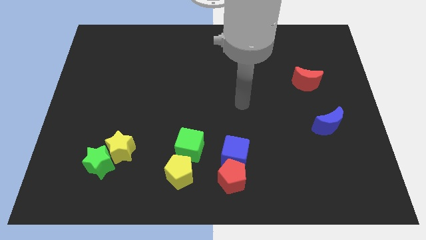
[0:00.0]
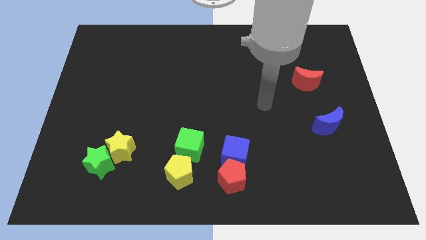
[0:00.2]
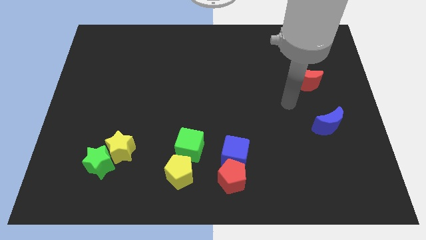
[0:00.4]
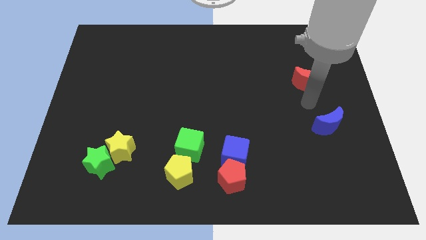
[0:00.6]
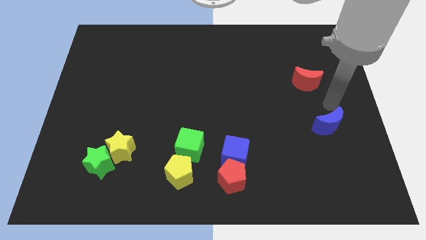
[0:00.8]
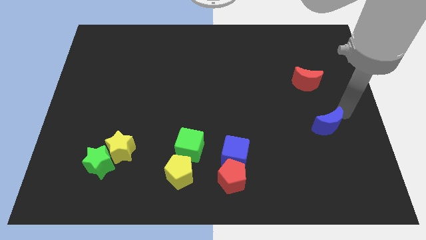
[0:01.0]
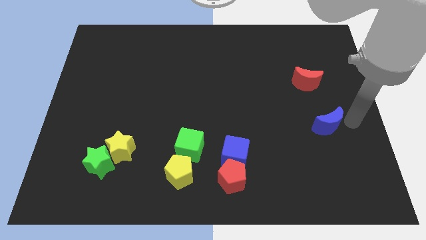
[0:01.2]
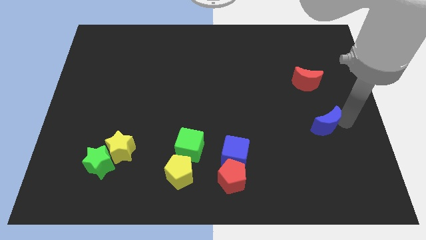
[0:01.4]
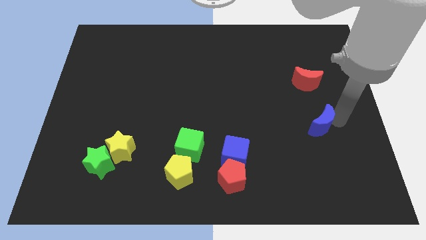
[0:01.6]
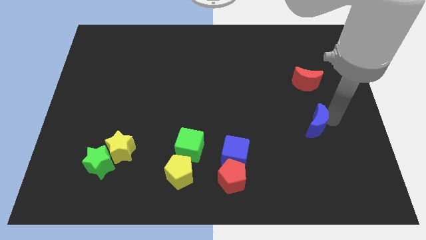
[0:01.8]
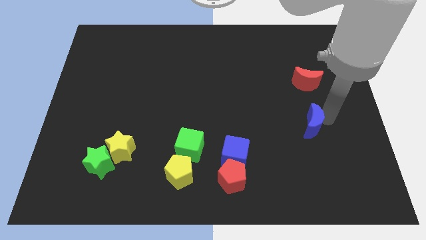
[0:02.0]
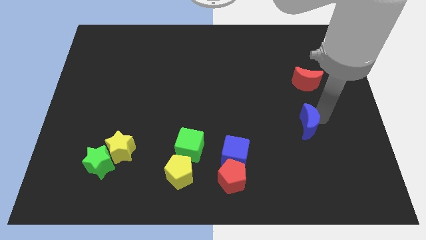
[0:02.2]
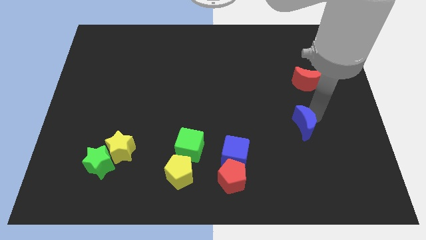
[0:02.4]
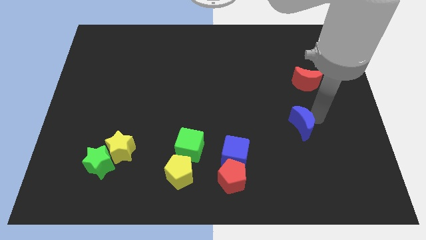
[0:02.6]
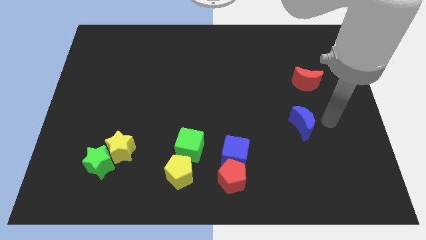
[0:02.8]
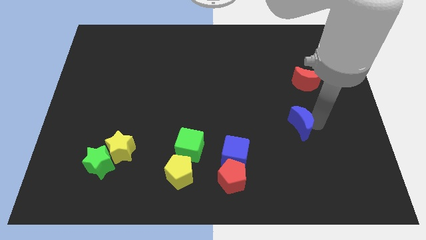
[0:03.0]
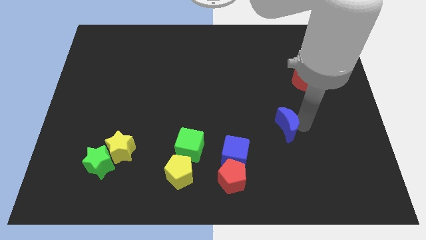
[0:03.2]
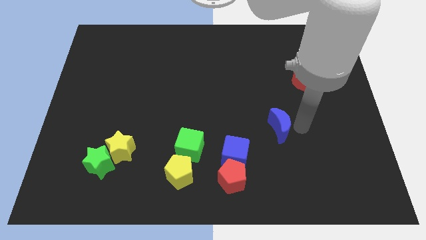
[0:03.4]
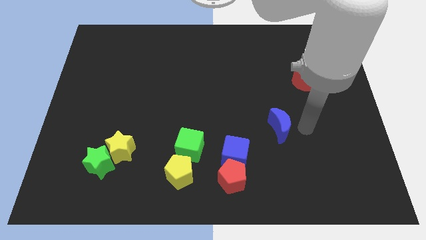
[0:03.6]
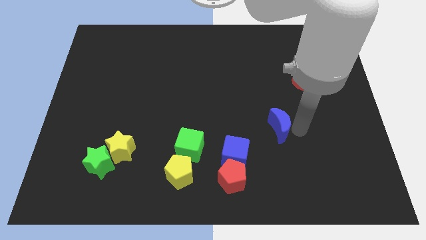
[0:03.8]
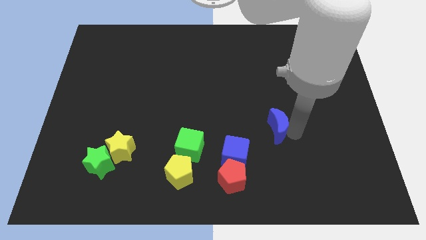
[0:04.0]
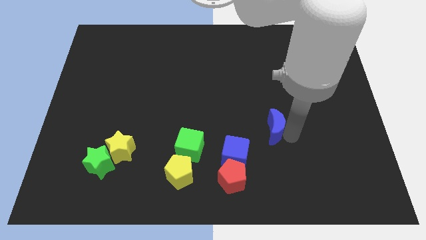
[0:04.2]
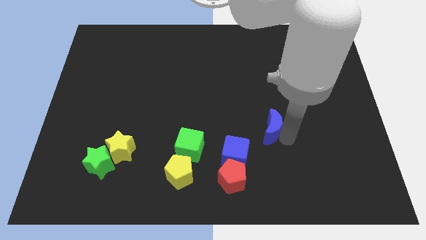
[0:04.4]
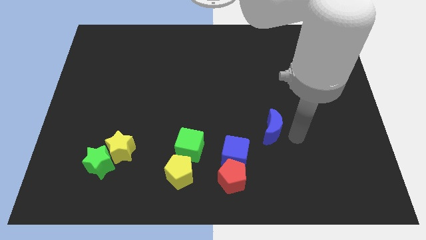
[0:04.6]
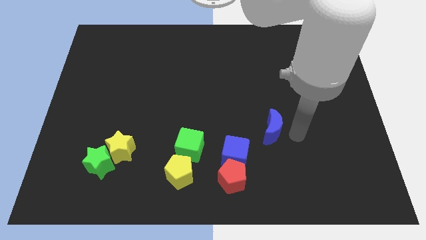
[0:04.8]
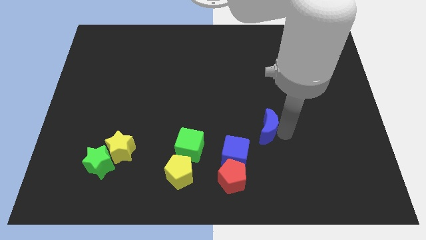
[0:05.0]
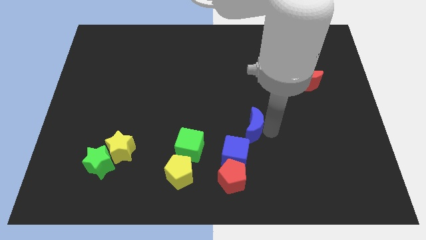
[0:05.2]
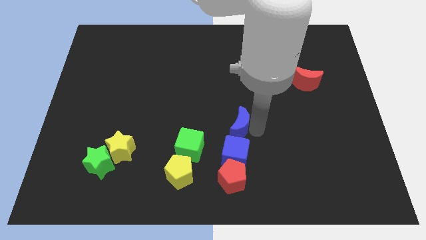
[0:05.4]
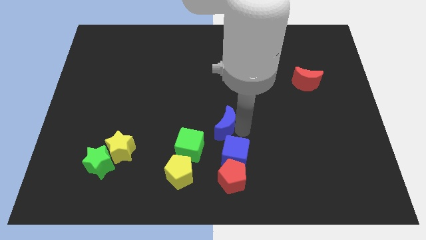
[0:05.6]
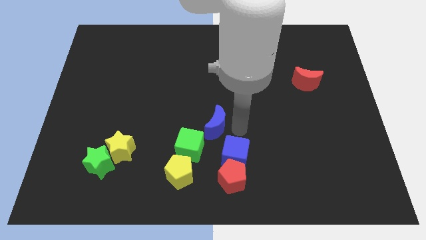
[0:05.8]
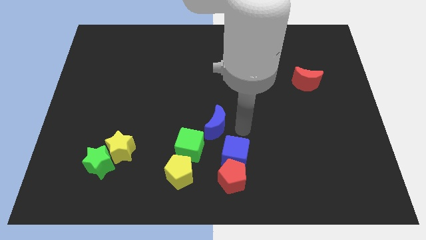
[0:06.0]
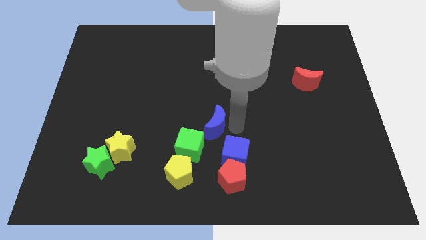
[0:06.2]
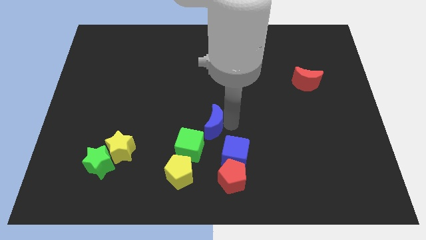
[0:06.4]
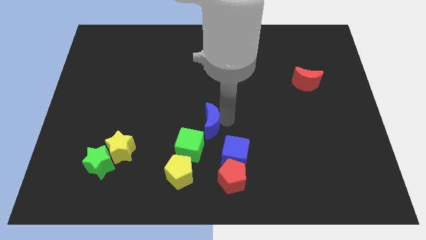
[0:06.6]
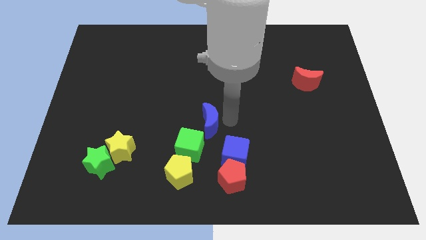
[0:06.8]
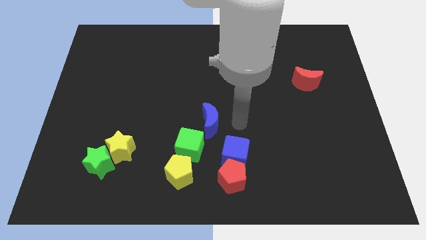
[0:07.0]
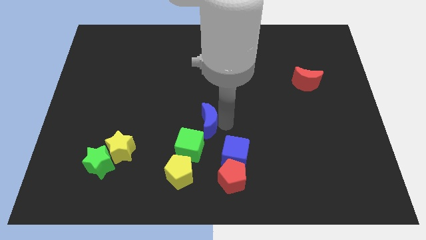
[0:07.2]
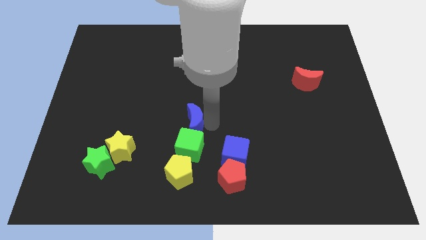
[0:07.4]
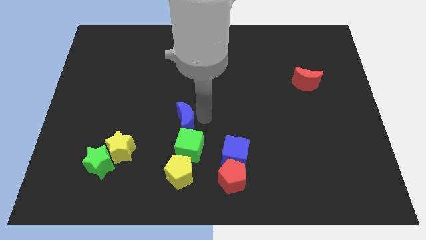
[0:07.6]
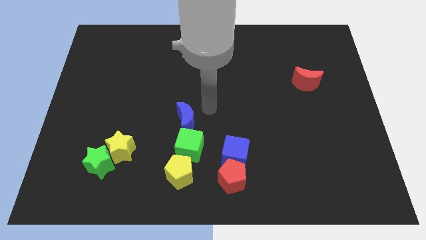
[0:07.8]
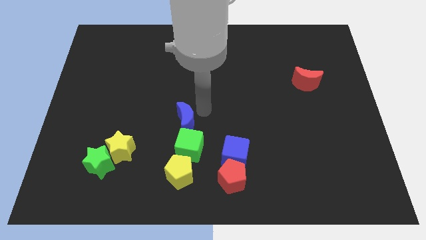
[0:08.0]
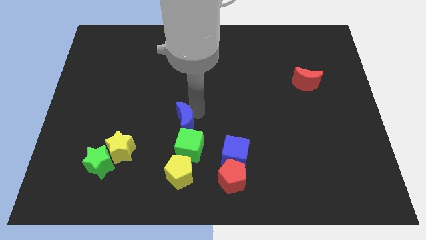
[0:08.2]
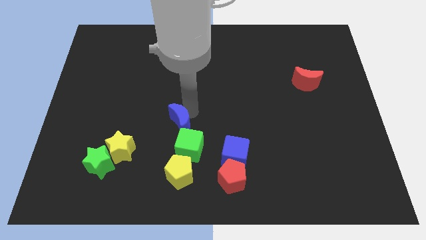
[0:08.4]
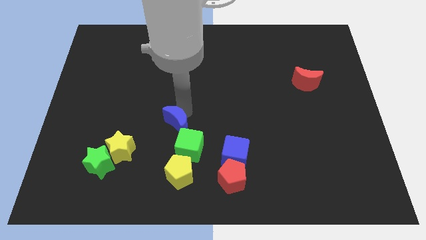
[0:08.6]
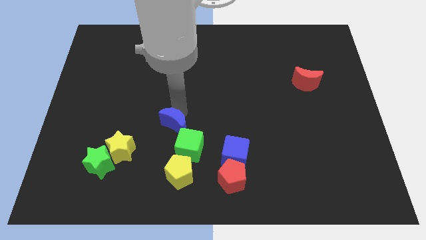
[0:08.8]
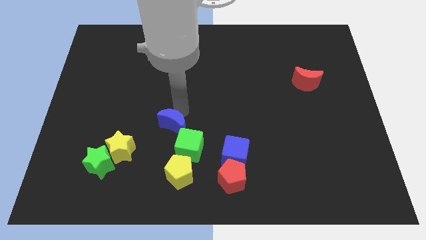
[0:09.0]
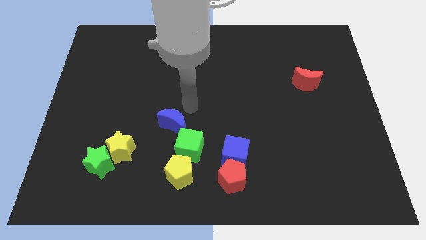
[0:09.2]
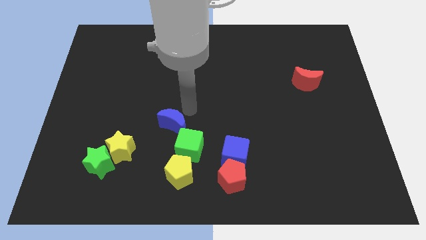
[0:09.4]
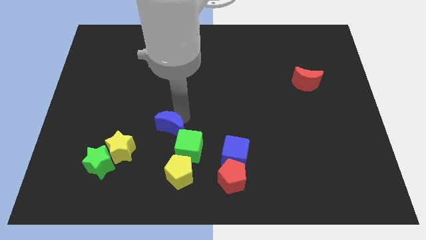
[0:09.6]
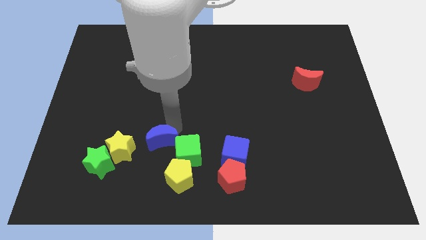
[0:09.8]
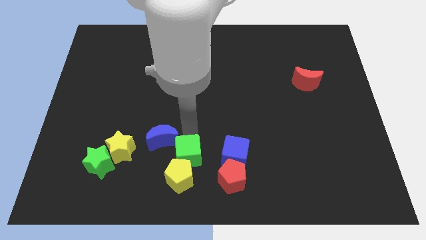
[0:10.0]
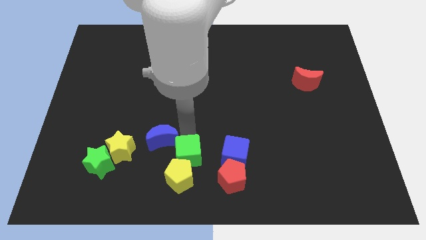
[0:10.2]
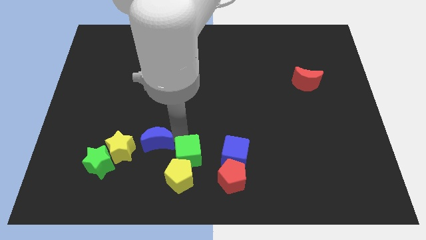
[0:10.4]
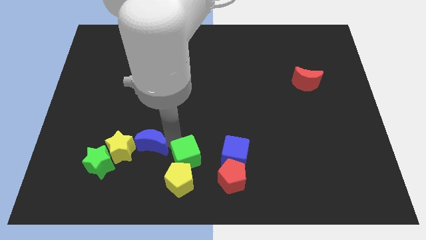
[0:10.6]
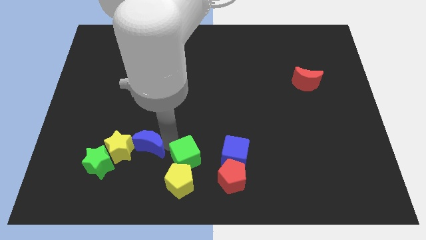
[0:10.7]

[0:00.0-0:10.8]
push the blue moon close to the yellow star

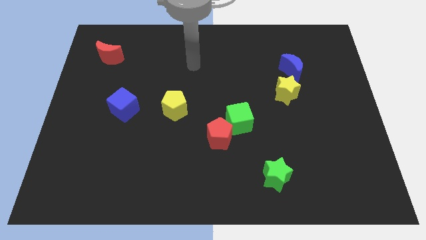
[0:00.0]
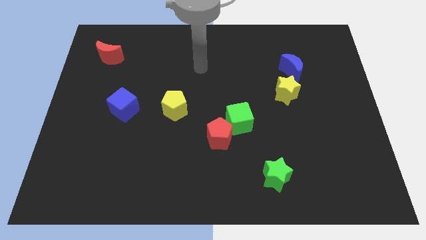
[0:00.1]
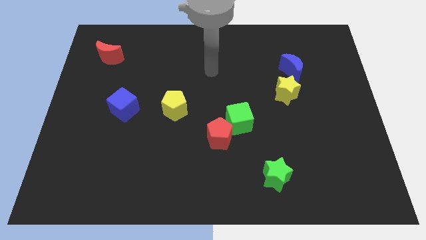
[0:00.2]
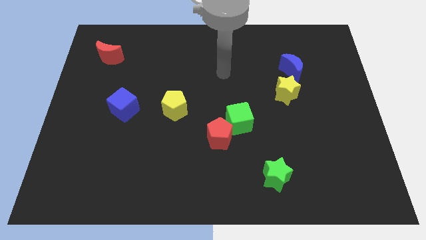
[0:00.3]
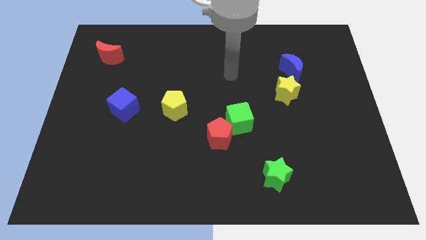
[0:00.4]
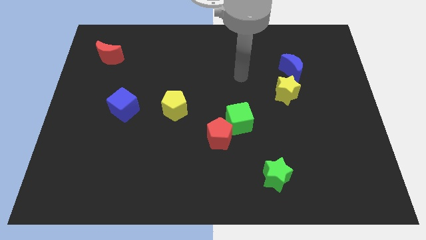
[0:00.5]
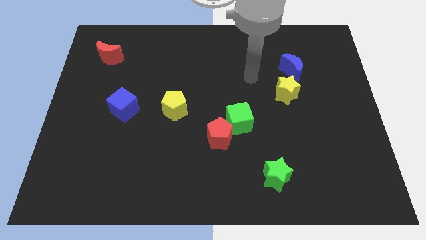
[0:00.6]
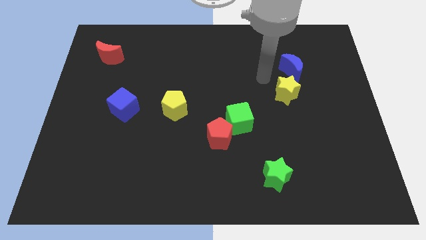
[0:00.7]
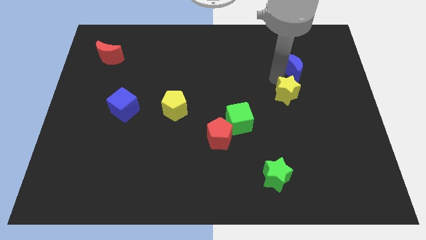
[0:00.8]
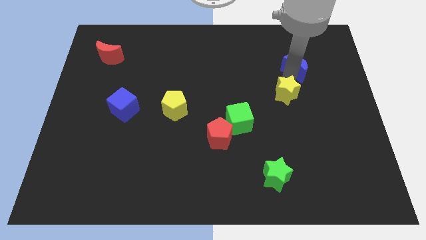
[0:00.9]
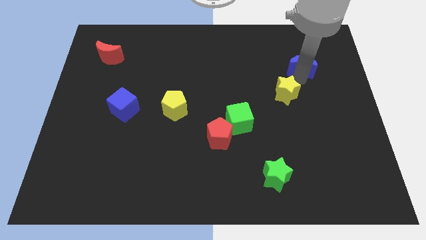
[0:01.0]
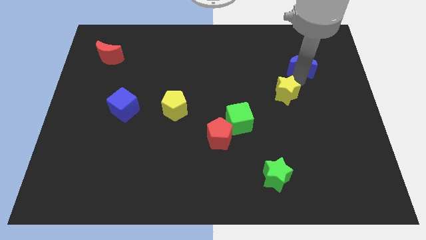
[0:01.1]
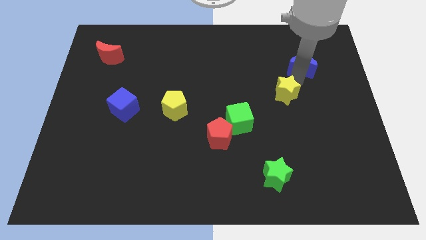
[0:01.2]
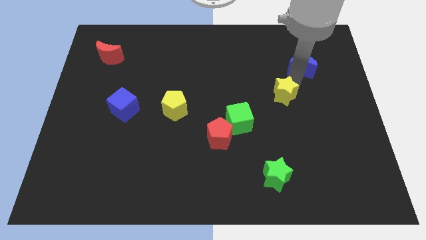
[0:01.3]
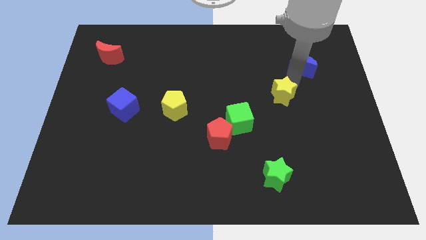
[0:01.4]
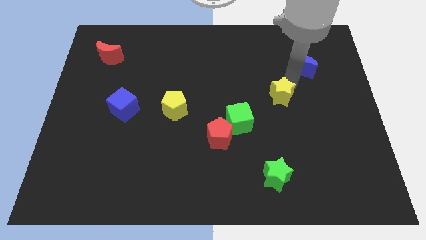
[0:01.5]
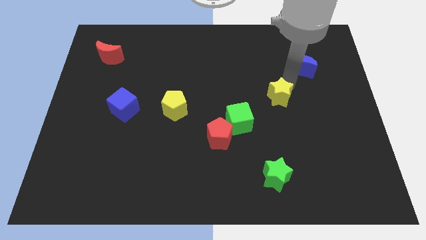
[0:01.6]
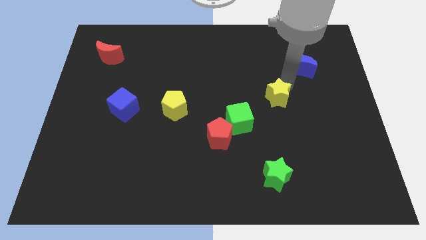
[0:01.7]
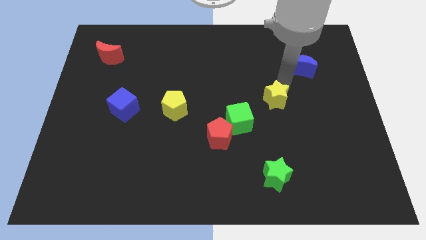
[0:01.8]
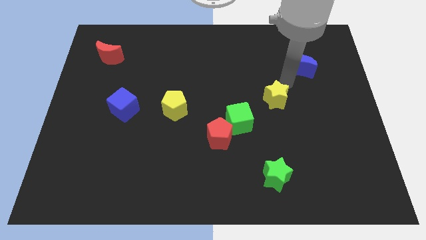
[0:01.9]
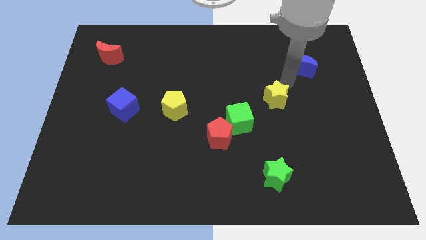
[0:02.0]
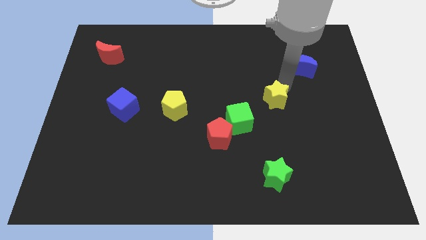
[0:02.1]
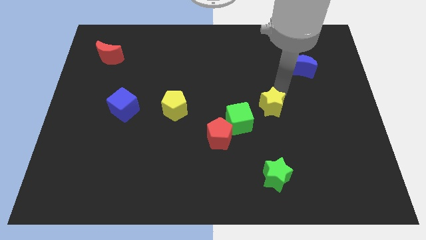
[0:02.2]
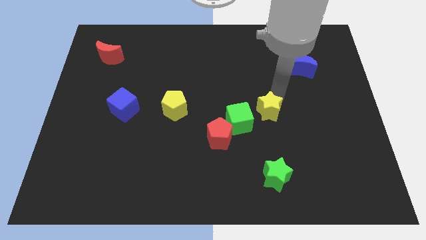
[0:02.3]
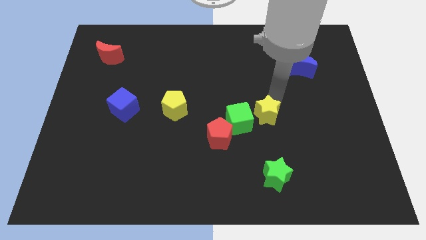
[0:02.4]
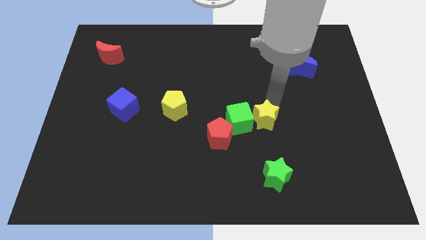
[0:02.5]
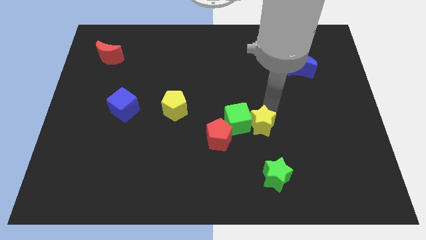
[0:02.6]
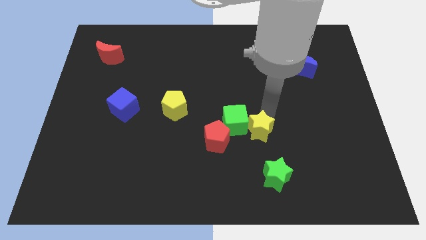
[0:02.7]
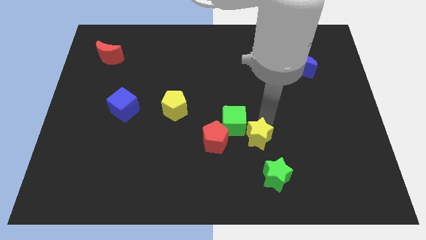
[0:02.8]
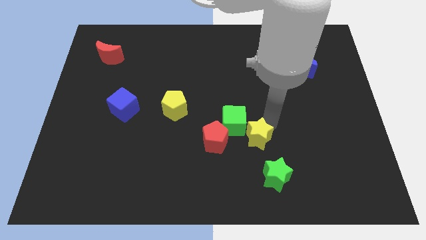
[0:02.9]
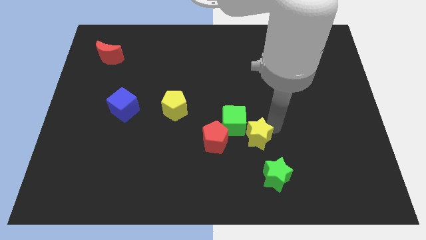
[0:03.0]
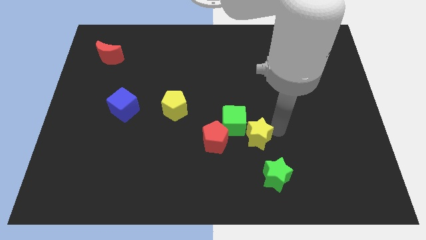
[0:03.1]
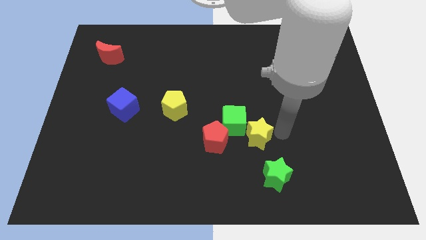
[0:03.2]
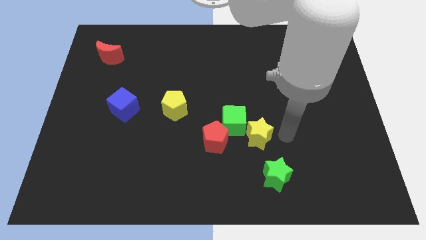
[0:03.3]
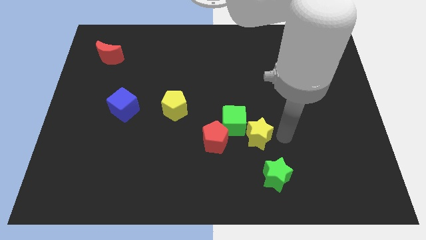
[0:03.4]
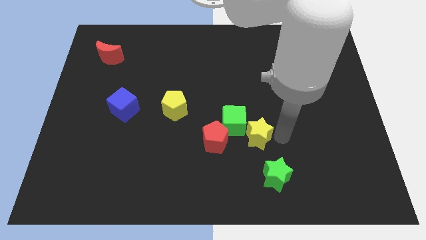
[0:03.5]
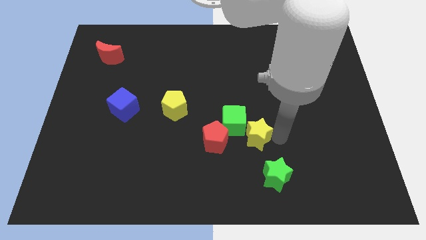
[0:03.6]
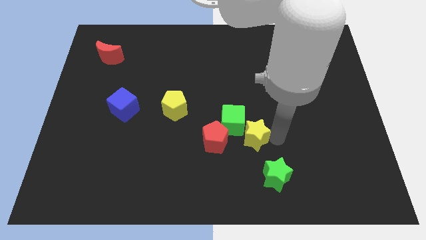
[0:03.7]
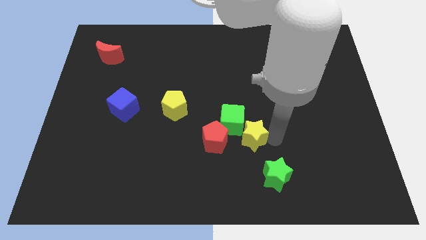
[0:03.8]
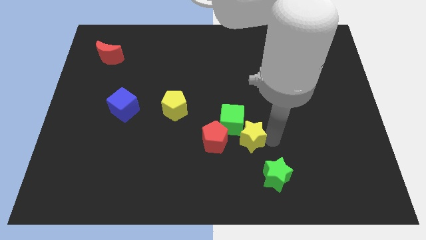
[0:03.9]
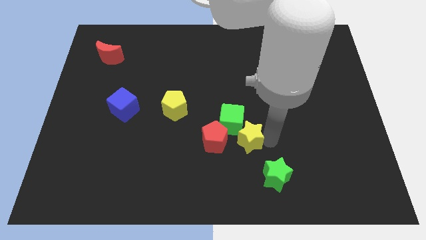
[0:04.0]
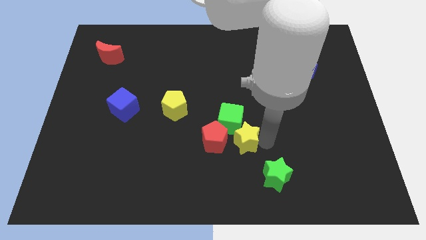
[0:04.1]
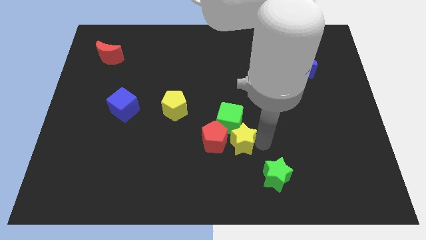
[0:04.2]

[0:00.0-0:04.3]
slide the yellow star to the red pentagon
